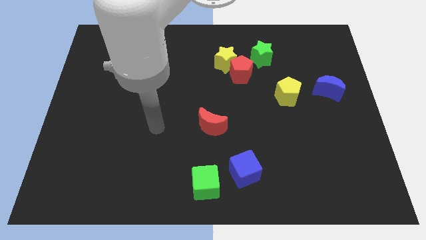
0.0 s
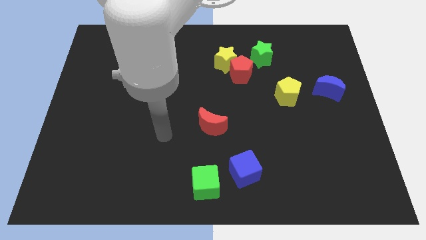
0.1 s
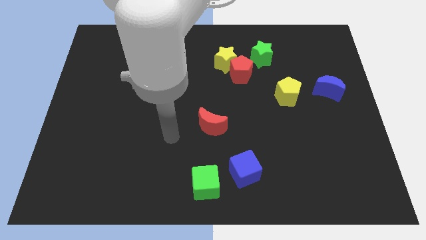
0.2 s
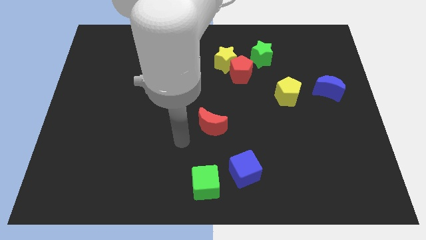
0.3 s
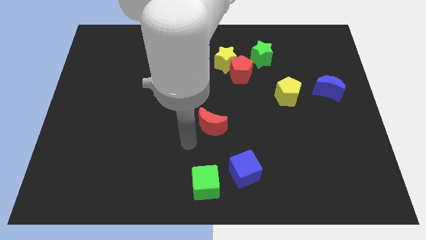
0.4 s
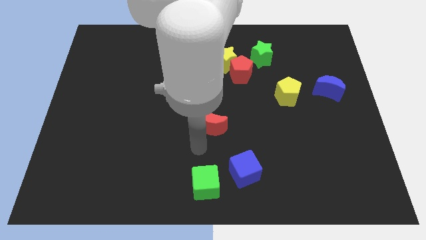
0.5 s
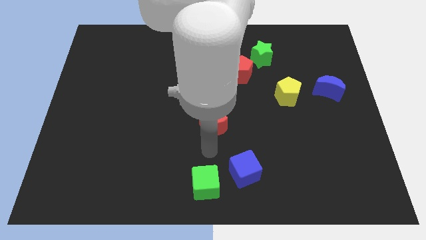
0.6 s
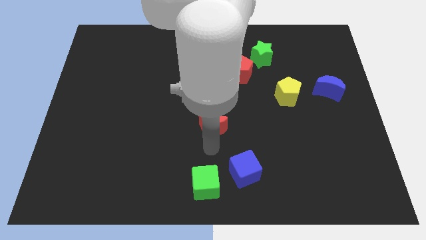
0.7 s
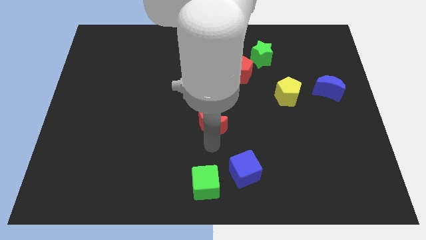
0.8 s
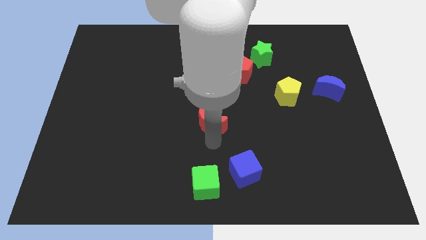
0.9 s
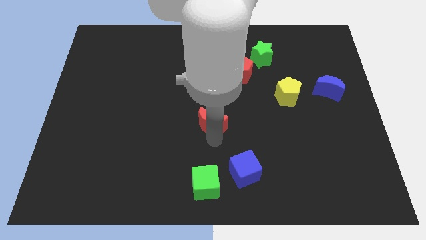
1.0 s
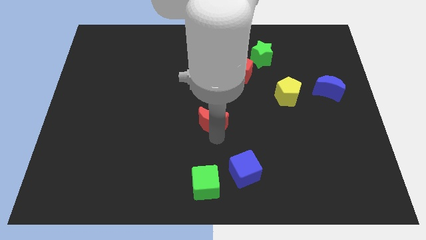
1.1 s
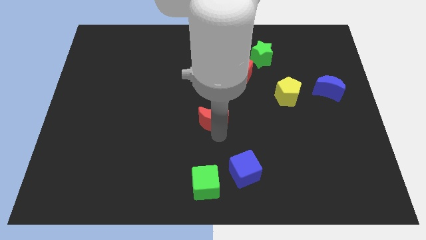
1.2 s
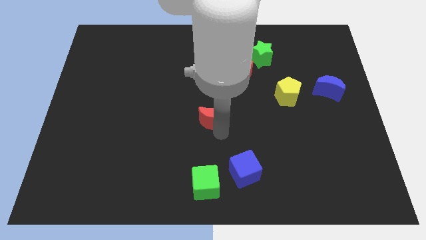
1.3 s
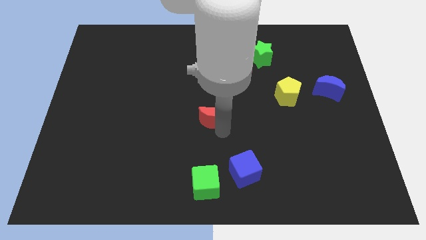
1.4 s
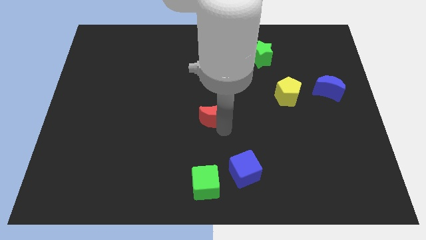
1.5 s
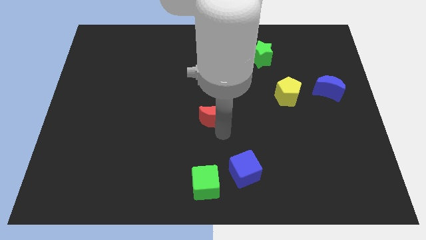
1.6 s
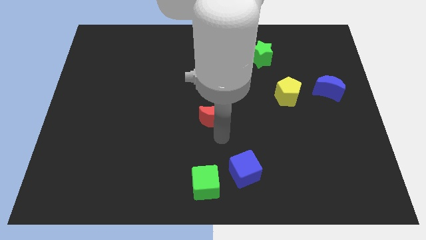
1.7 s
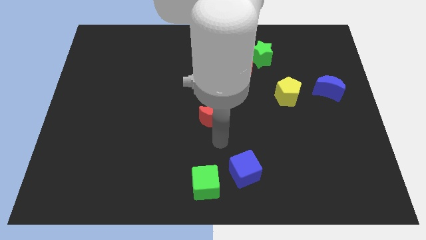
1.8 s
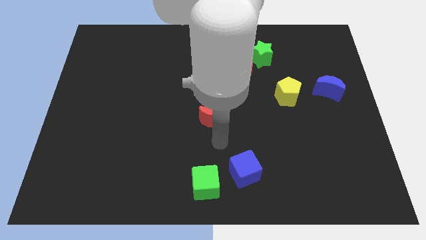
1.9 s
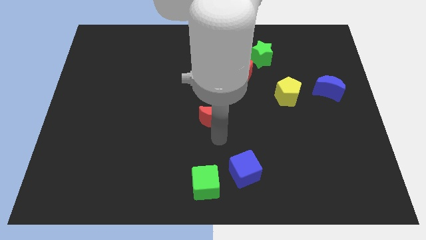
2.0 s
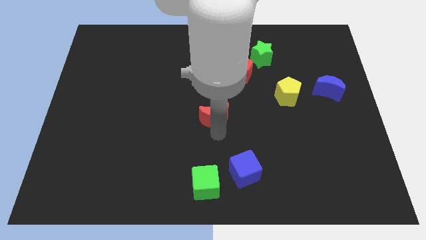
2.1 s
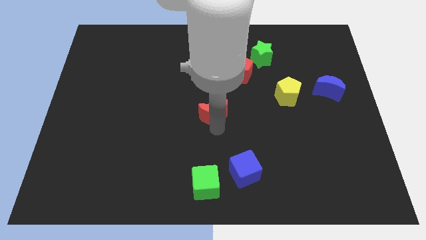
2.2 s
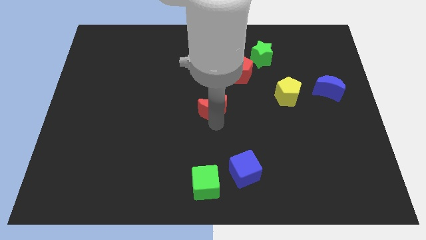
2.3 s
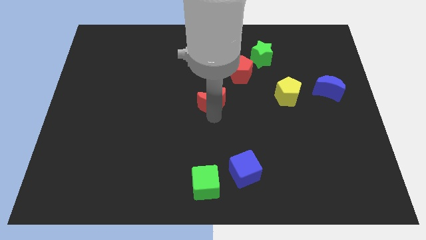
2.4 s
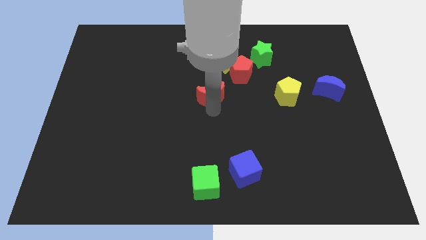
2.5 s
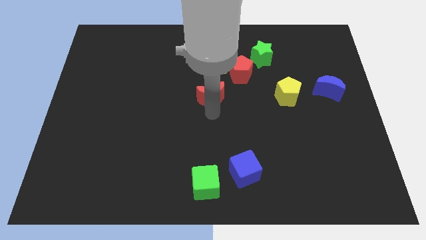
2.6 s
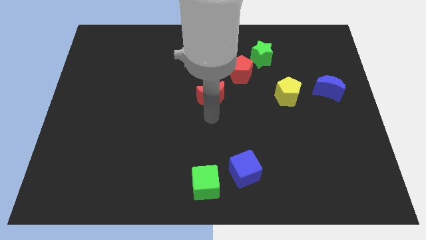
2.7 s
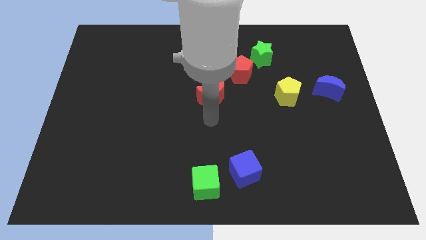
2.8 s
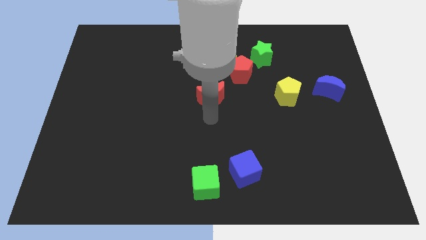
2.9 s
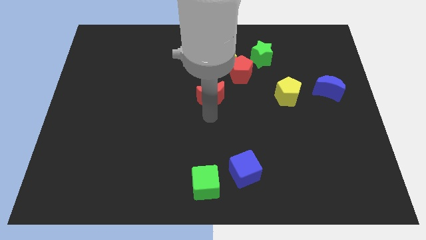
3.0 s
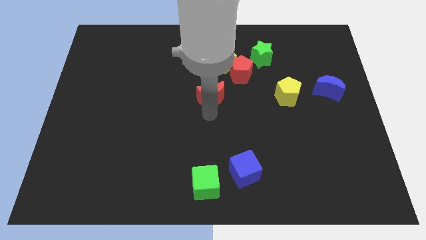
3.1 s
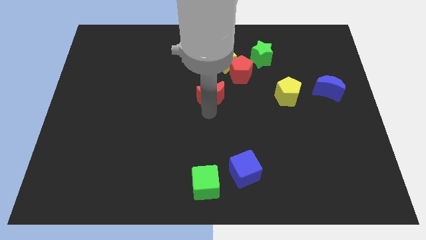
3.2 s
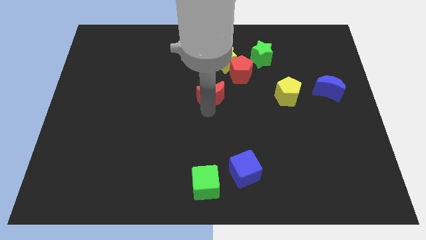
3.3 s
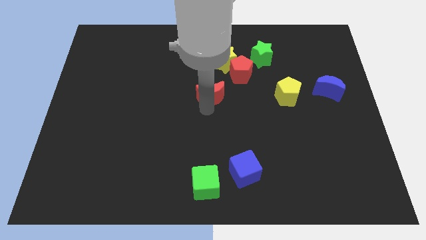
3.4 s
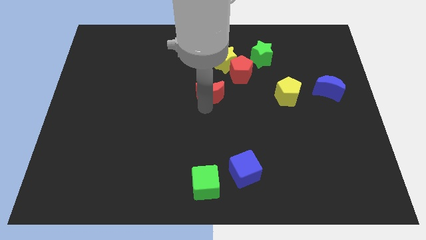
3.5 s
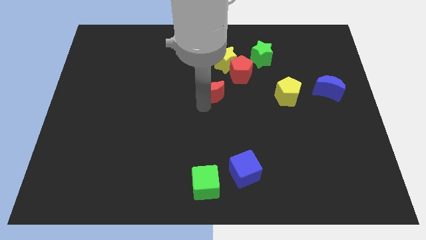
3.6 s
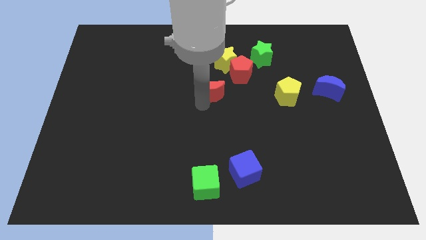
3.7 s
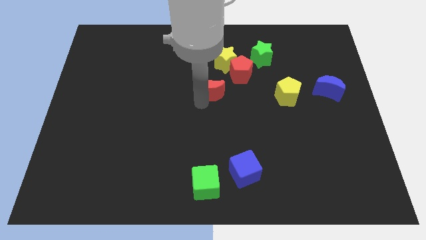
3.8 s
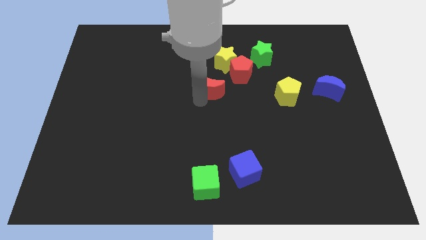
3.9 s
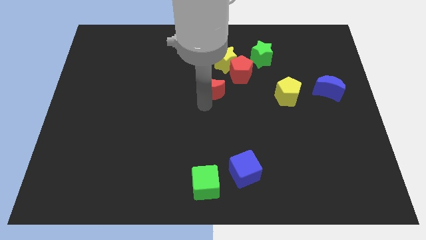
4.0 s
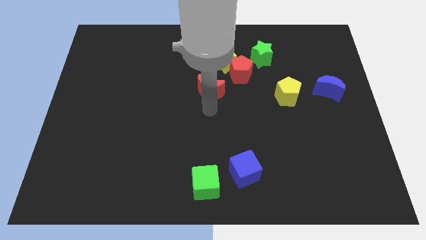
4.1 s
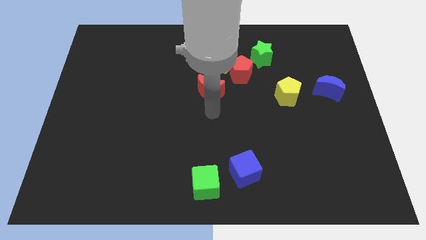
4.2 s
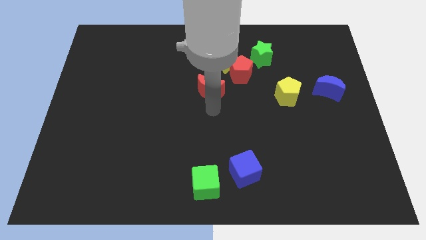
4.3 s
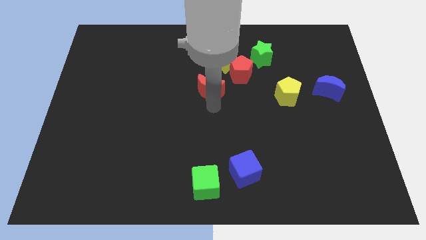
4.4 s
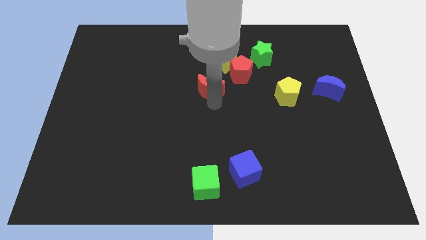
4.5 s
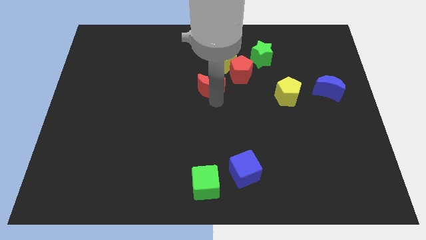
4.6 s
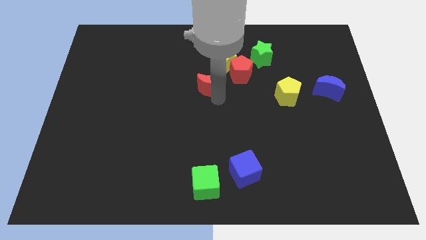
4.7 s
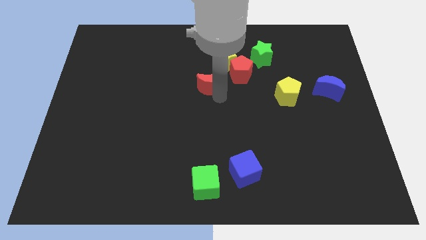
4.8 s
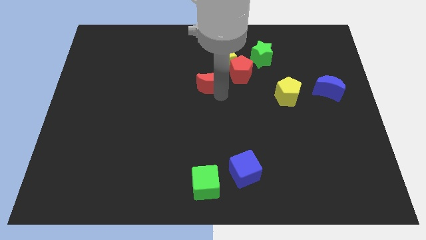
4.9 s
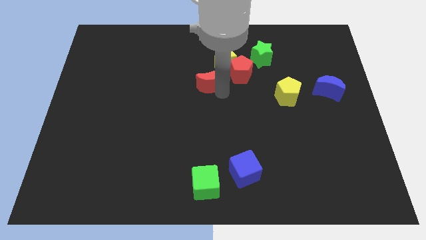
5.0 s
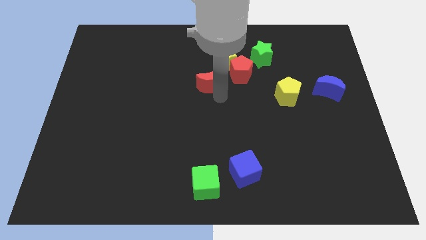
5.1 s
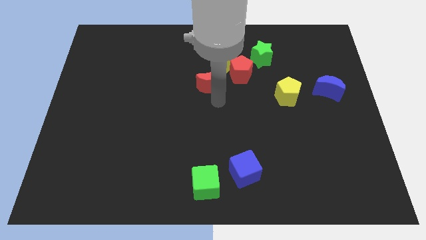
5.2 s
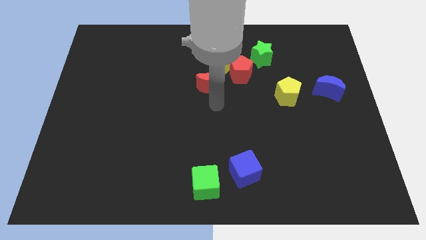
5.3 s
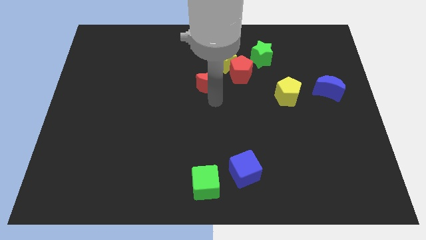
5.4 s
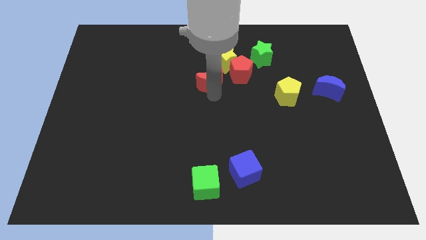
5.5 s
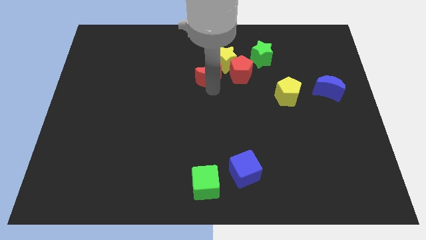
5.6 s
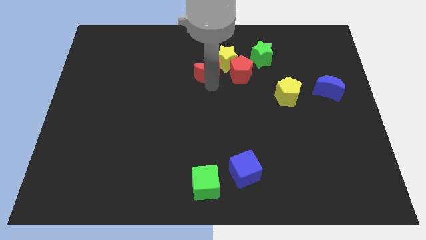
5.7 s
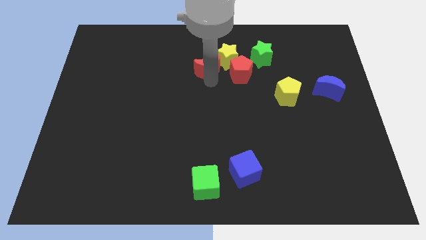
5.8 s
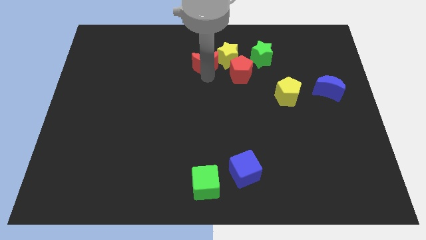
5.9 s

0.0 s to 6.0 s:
push the red moon diagonally up and to the left of the red pentagon
